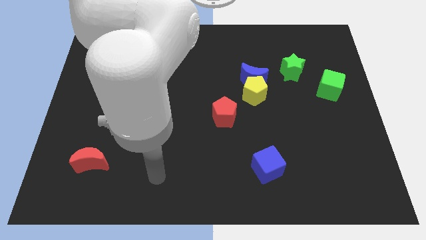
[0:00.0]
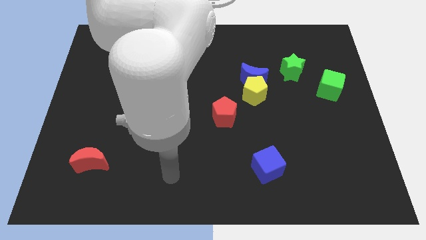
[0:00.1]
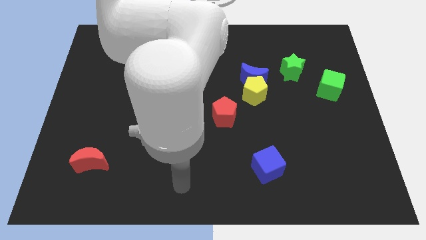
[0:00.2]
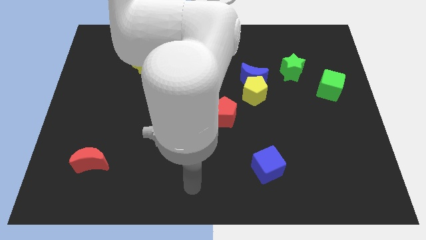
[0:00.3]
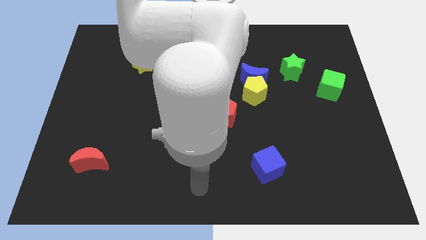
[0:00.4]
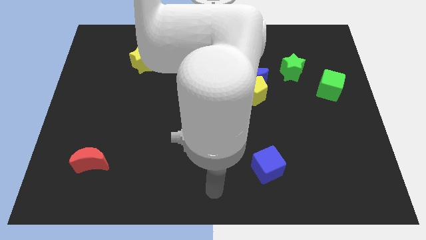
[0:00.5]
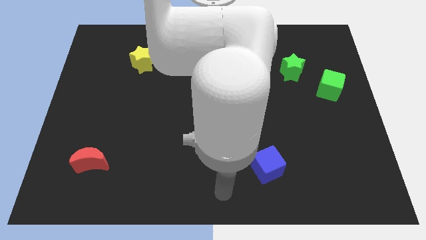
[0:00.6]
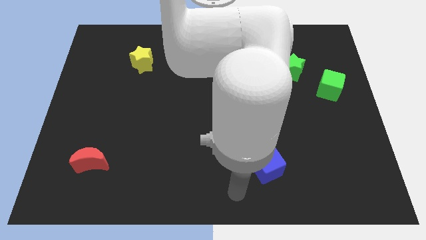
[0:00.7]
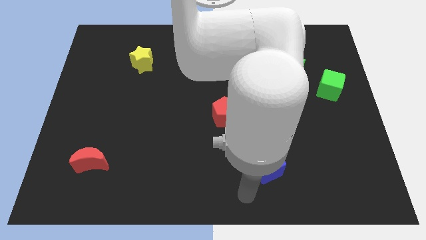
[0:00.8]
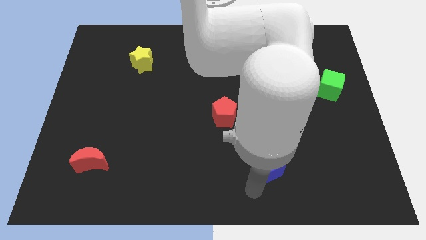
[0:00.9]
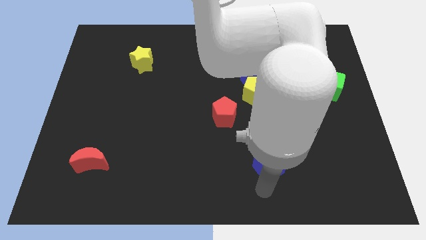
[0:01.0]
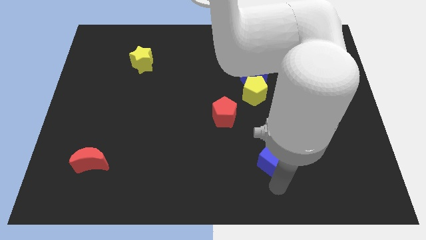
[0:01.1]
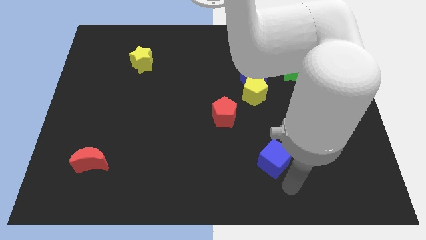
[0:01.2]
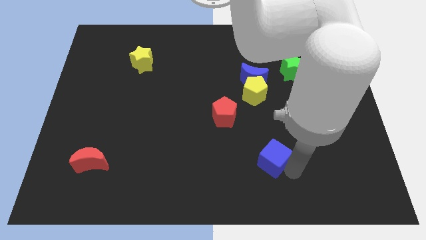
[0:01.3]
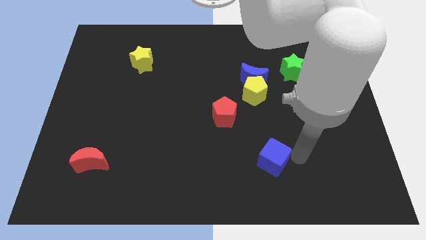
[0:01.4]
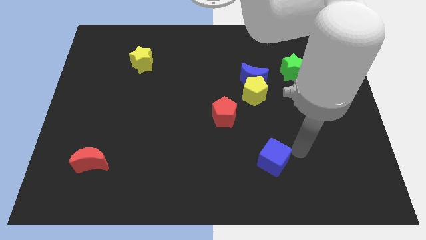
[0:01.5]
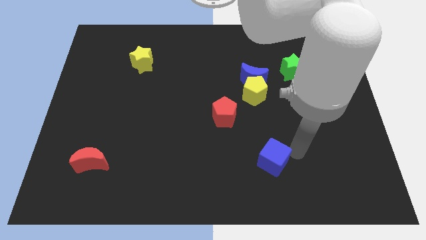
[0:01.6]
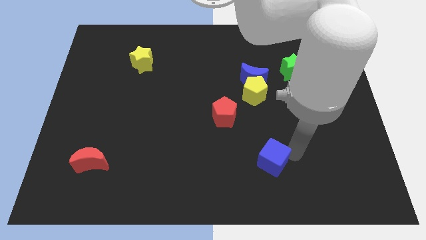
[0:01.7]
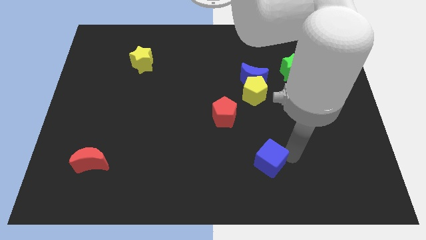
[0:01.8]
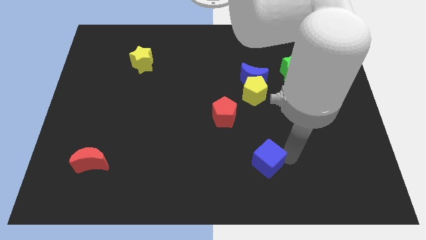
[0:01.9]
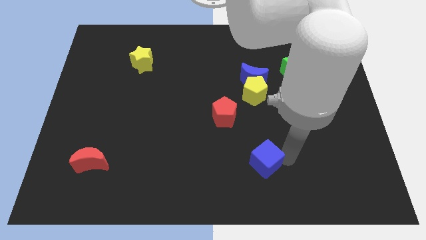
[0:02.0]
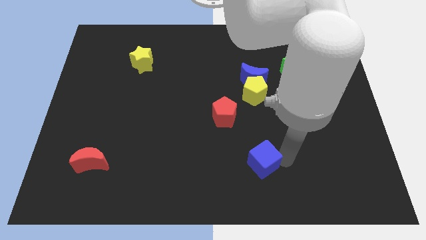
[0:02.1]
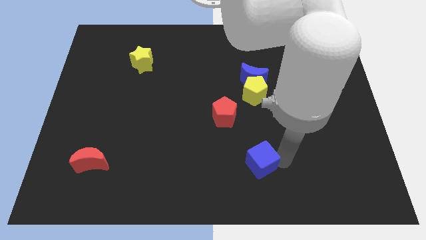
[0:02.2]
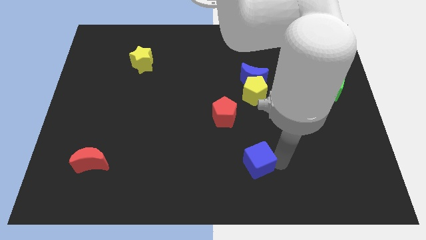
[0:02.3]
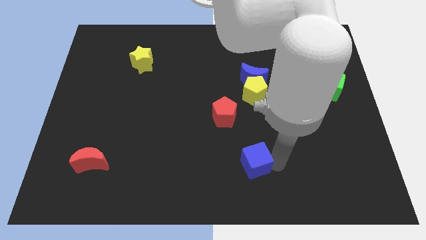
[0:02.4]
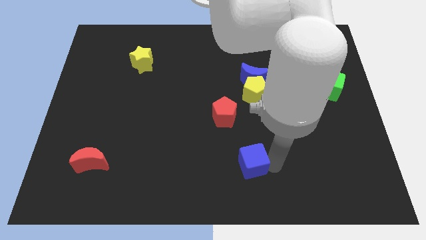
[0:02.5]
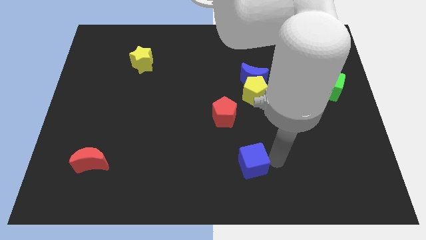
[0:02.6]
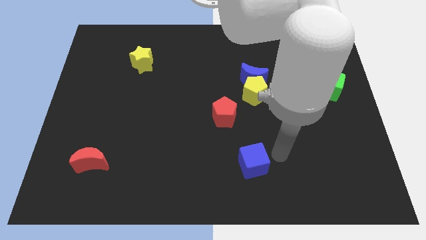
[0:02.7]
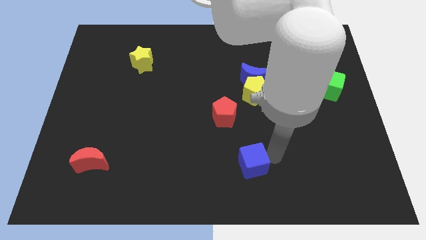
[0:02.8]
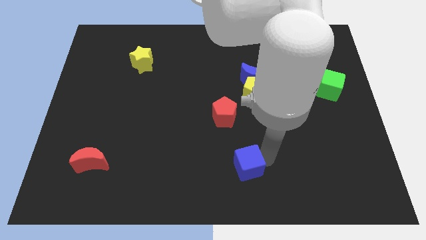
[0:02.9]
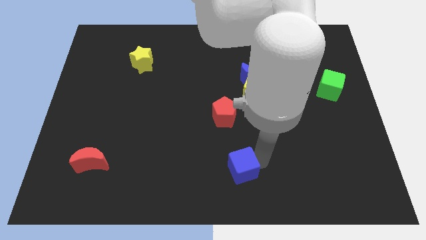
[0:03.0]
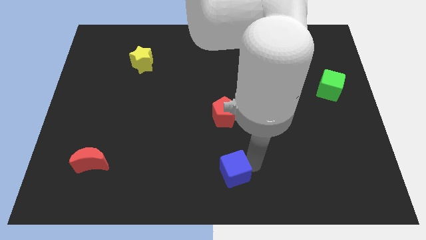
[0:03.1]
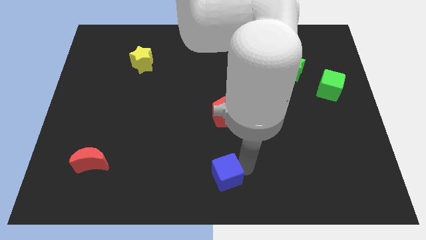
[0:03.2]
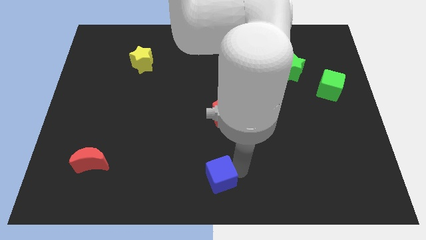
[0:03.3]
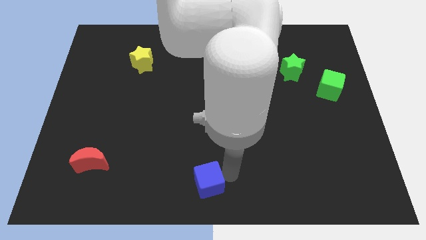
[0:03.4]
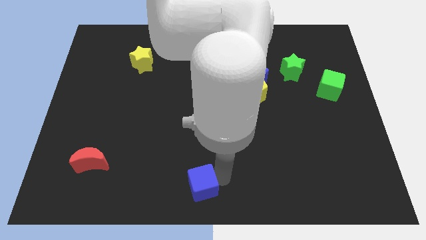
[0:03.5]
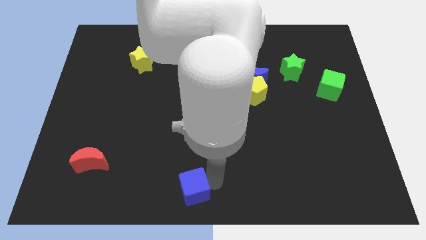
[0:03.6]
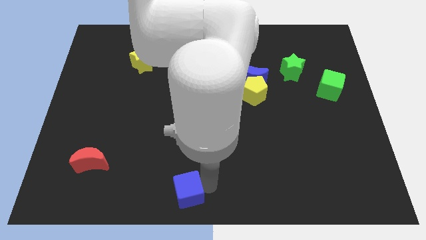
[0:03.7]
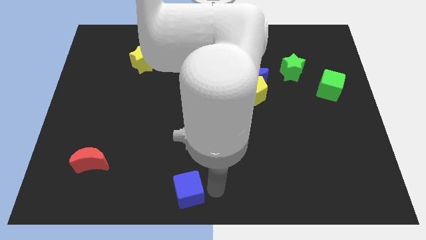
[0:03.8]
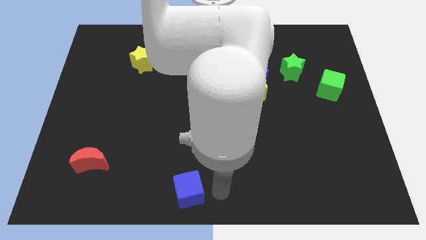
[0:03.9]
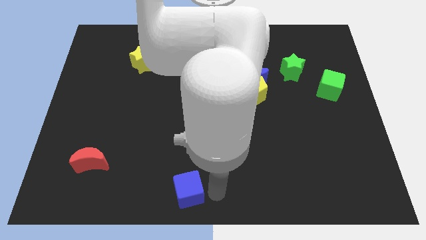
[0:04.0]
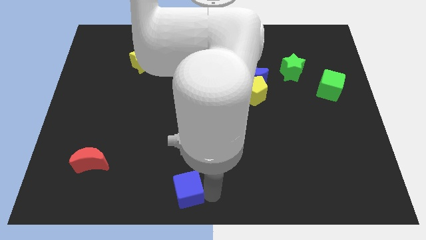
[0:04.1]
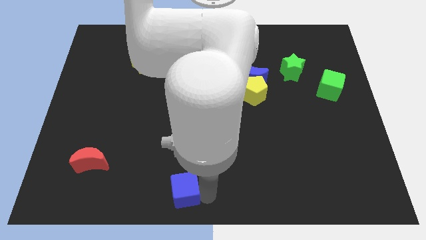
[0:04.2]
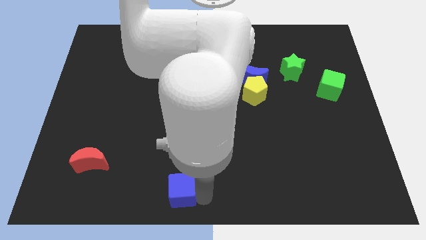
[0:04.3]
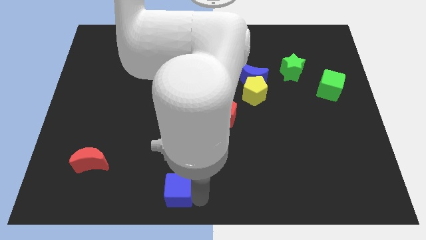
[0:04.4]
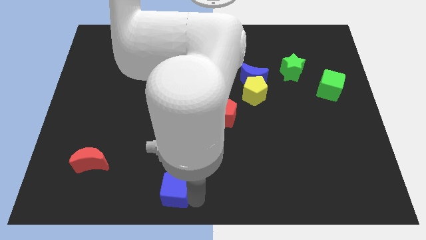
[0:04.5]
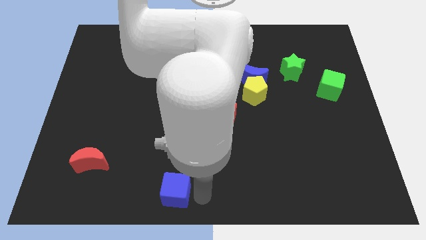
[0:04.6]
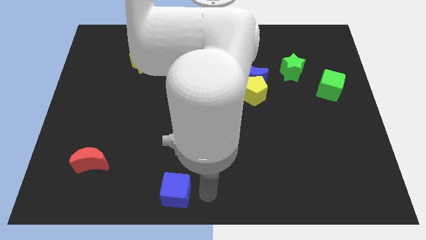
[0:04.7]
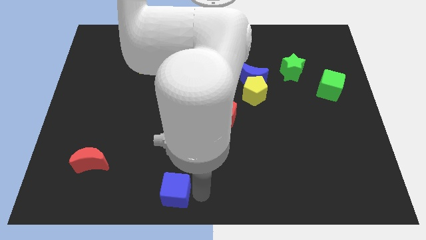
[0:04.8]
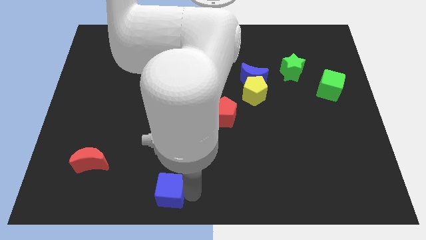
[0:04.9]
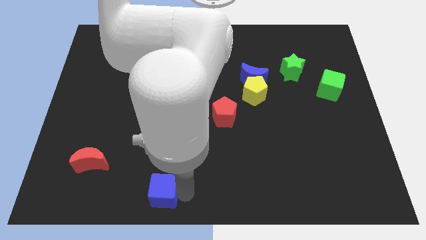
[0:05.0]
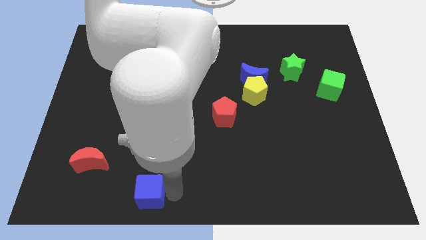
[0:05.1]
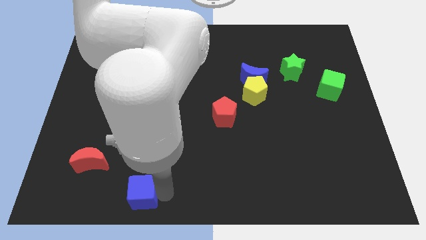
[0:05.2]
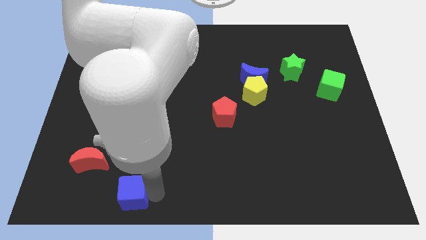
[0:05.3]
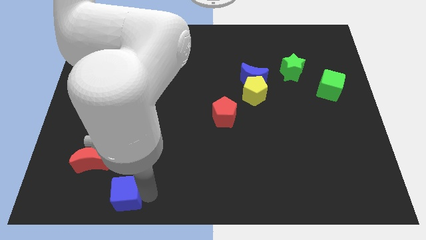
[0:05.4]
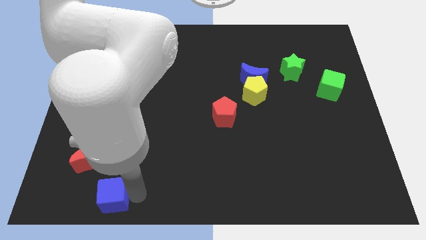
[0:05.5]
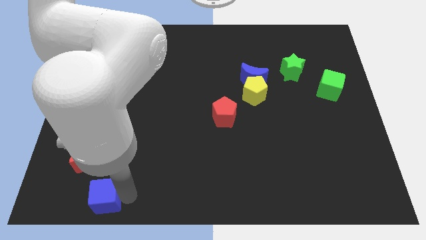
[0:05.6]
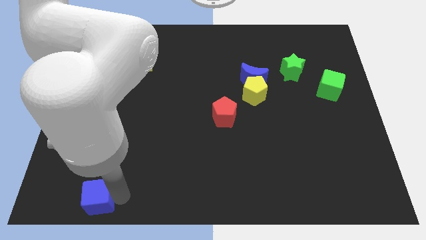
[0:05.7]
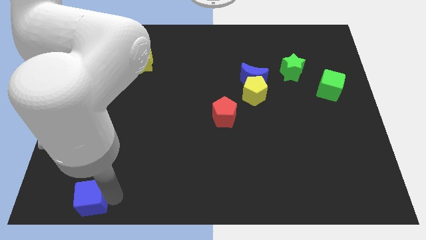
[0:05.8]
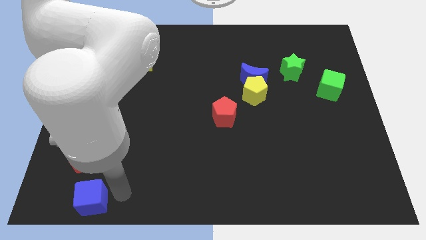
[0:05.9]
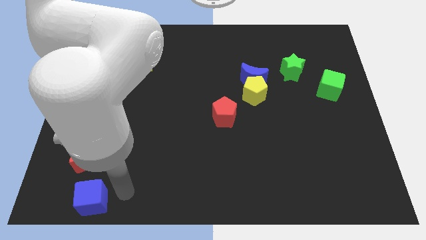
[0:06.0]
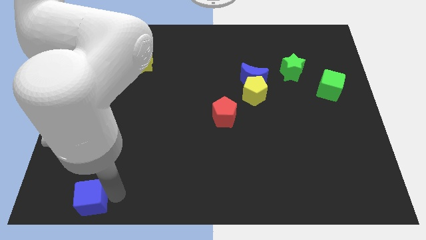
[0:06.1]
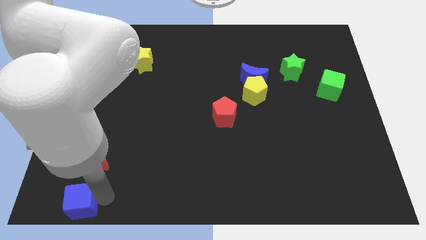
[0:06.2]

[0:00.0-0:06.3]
move the blue cube to the bottom left of the board
